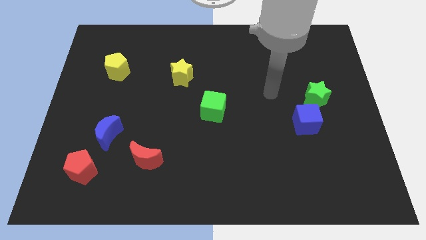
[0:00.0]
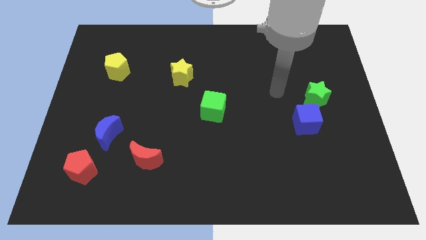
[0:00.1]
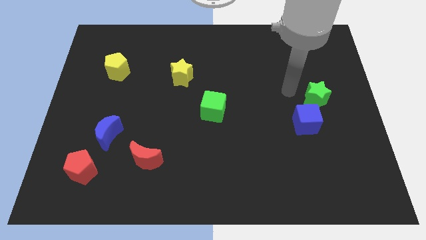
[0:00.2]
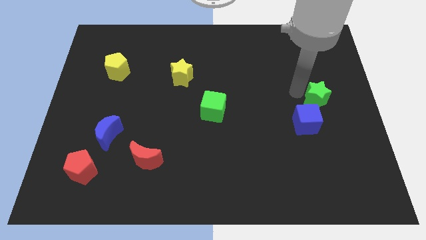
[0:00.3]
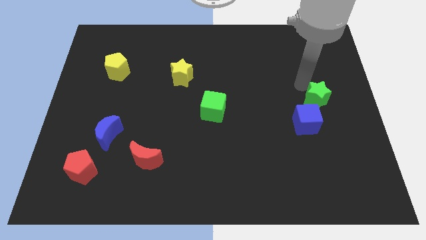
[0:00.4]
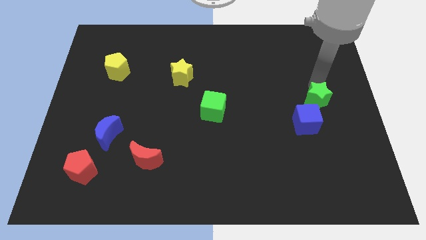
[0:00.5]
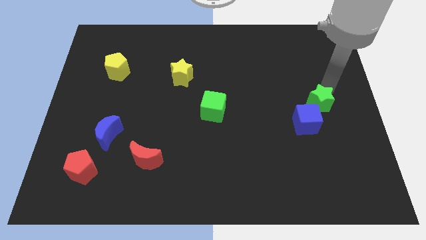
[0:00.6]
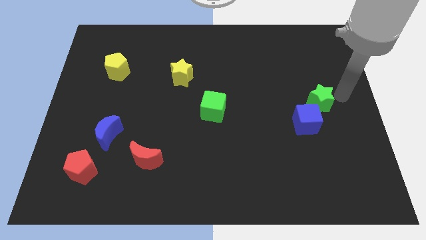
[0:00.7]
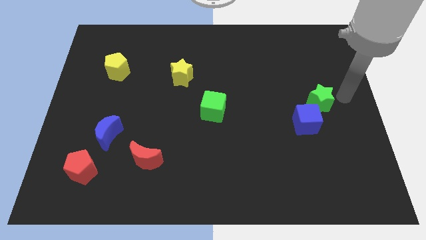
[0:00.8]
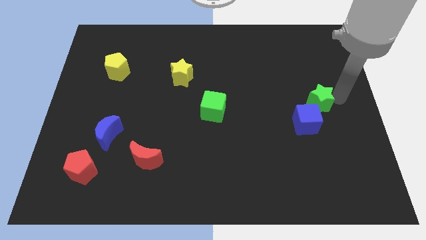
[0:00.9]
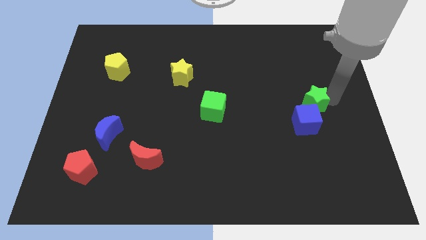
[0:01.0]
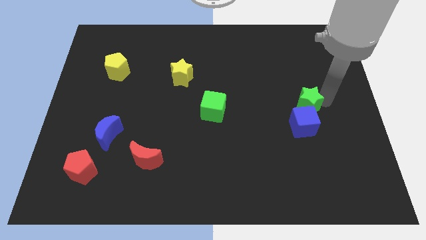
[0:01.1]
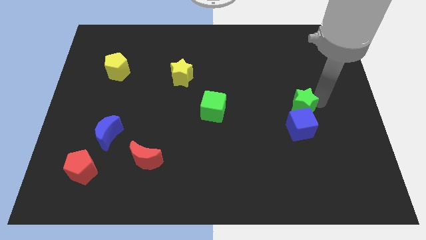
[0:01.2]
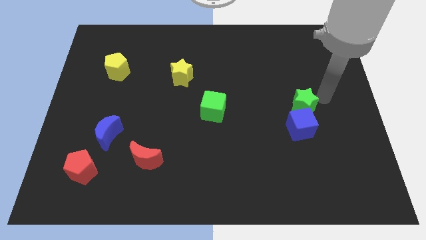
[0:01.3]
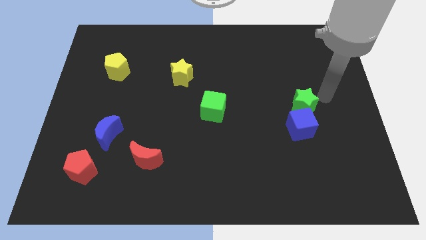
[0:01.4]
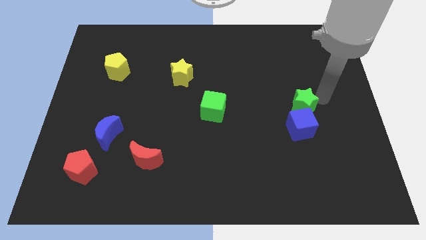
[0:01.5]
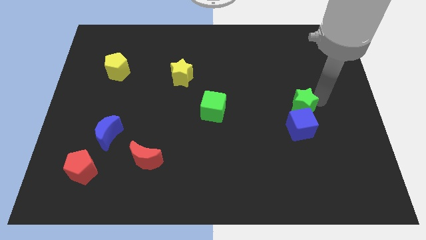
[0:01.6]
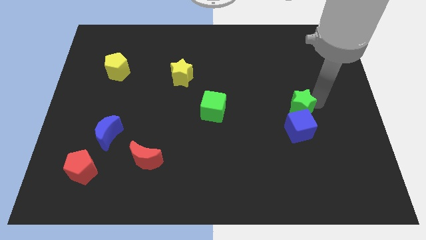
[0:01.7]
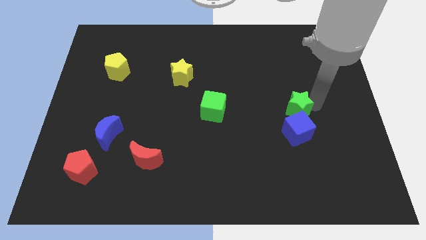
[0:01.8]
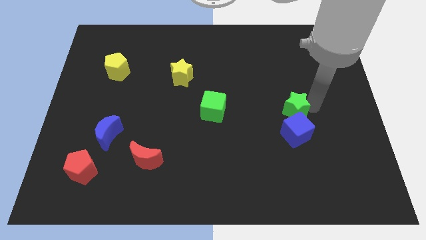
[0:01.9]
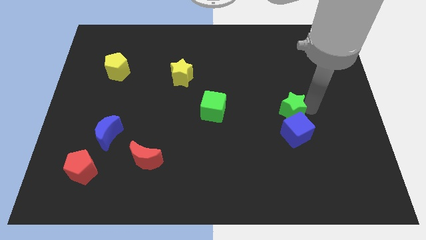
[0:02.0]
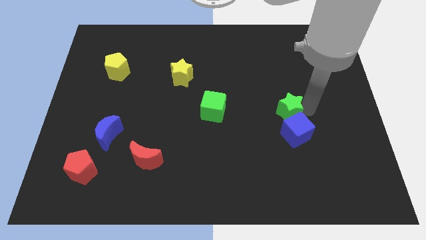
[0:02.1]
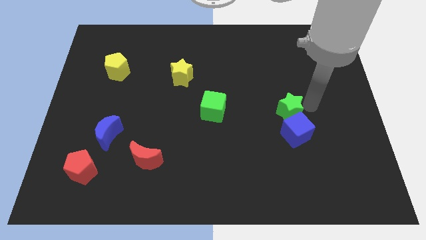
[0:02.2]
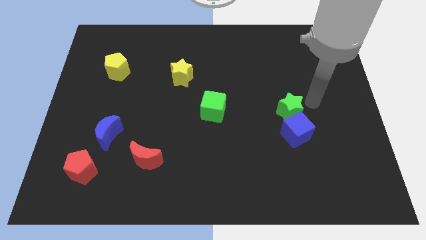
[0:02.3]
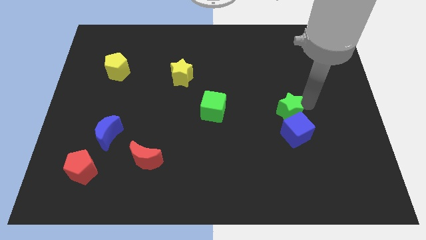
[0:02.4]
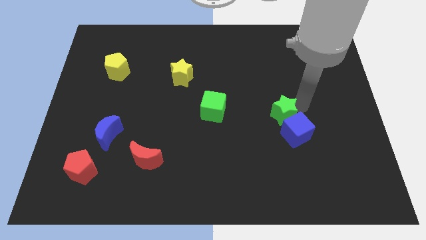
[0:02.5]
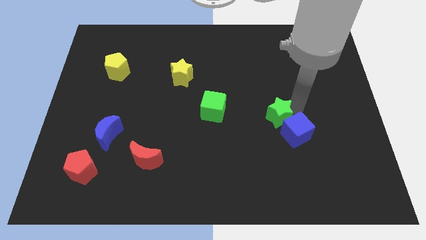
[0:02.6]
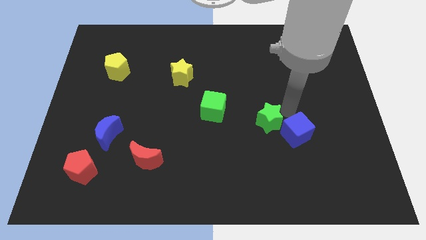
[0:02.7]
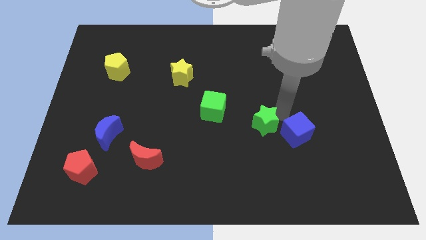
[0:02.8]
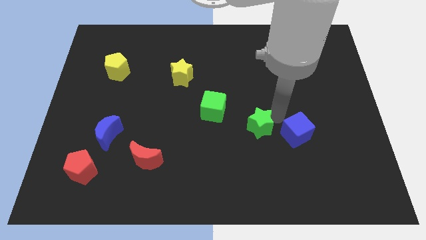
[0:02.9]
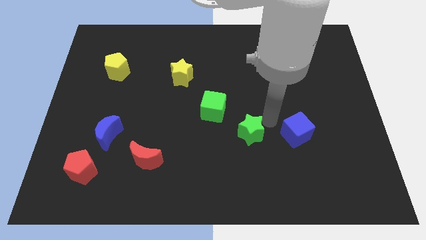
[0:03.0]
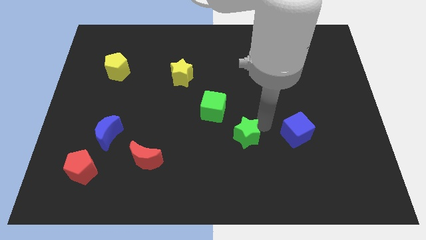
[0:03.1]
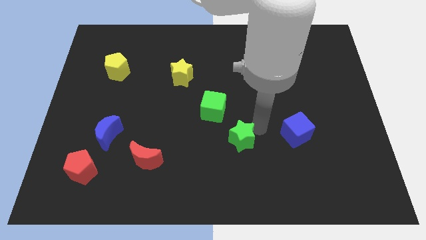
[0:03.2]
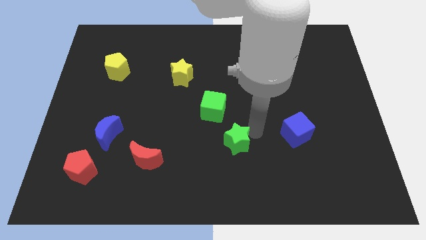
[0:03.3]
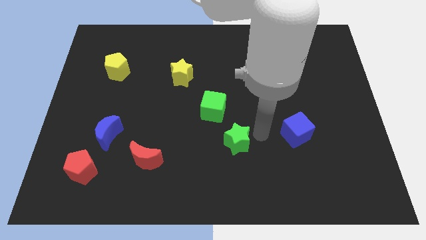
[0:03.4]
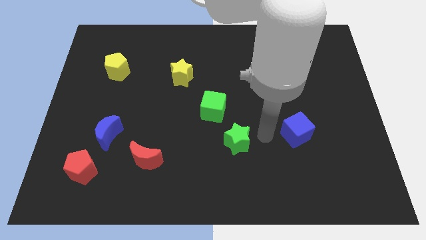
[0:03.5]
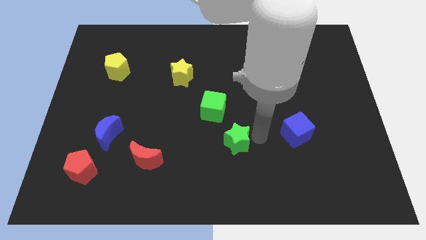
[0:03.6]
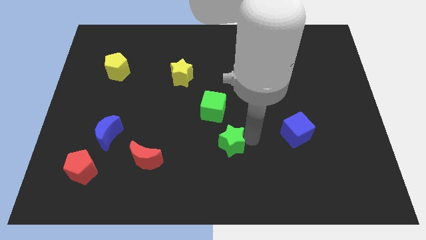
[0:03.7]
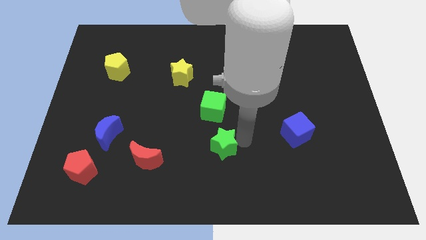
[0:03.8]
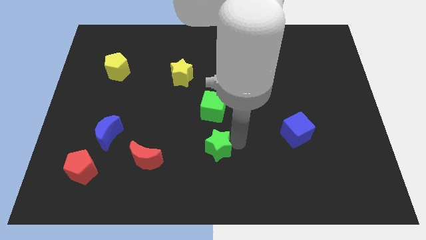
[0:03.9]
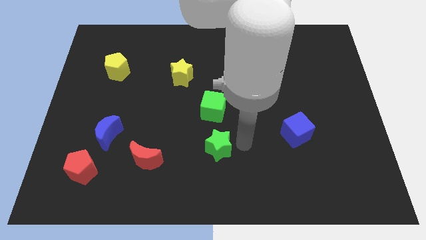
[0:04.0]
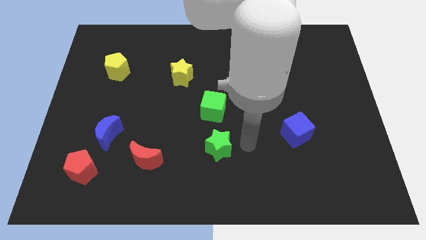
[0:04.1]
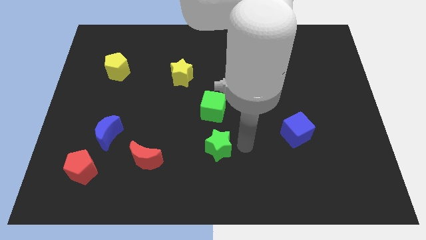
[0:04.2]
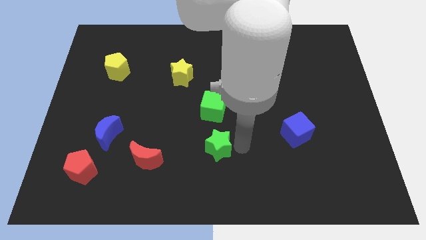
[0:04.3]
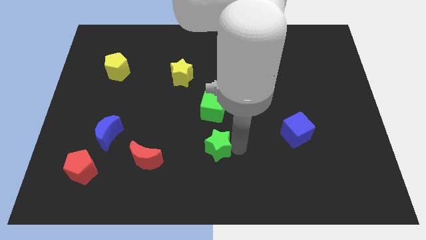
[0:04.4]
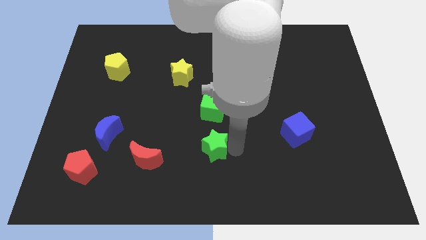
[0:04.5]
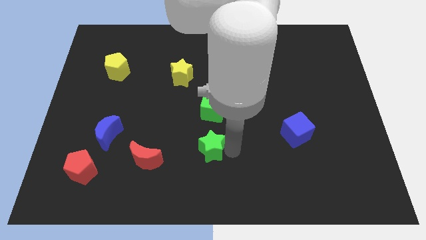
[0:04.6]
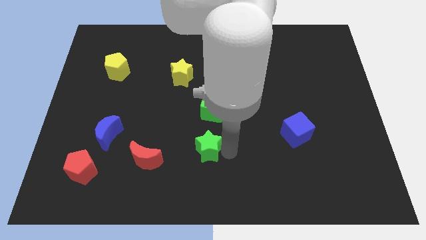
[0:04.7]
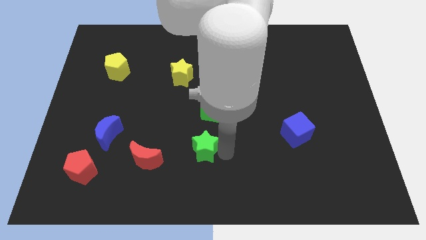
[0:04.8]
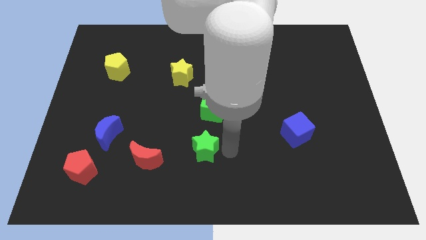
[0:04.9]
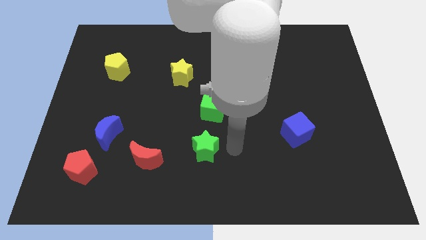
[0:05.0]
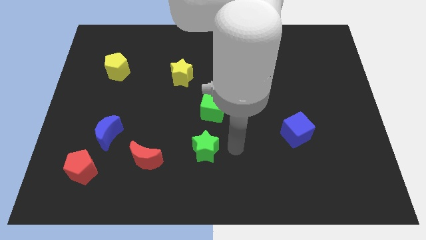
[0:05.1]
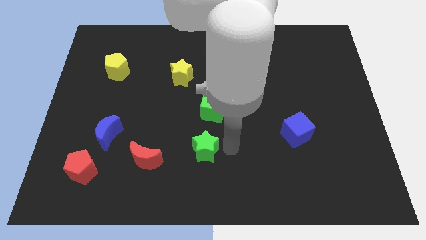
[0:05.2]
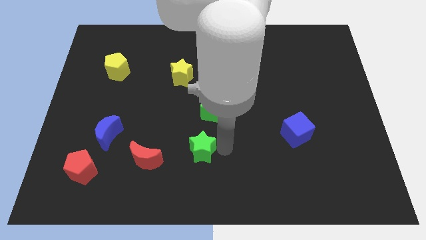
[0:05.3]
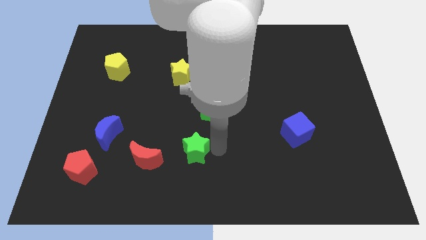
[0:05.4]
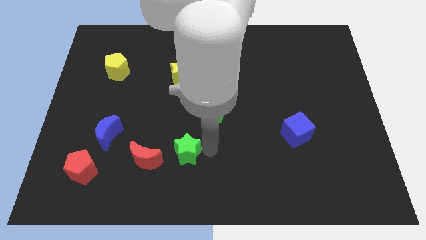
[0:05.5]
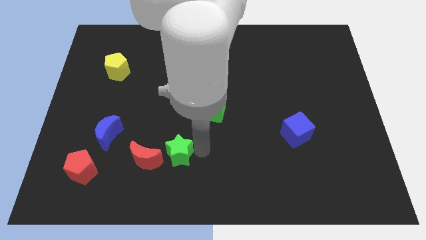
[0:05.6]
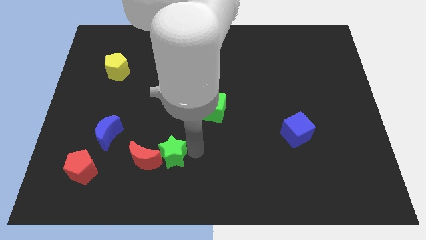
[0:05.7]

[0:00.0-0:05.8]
put the green star towards the red moon

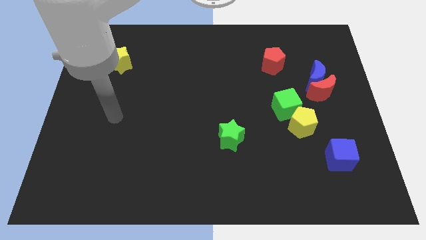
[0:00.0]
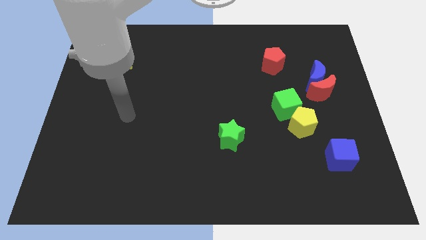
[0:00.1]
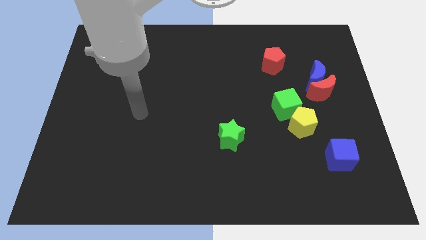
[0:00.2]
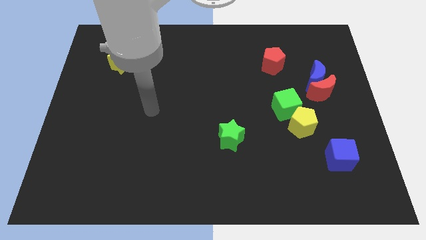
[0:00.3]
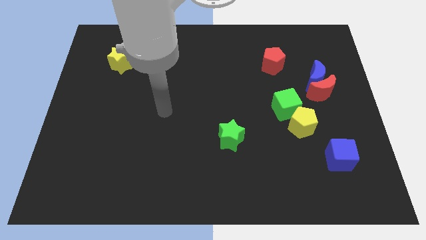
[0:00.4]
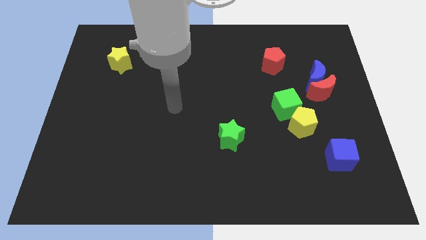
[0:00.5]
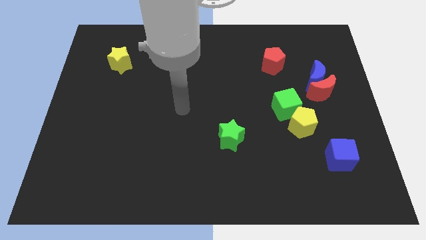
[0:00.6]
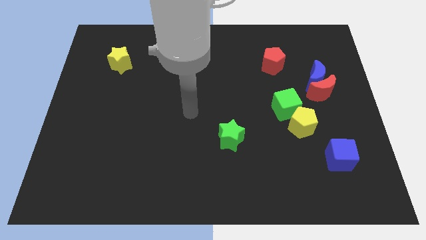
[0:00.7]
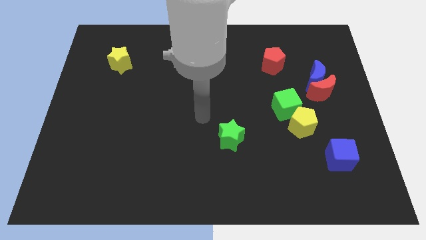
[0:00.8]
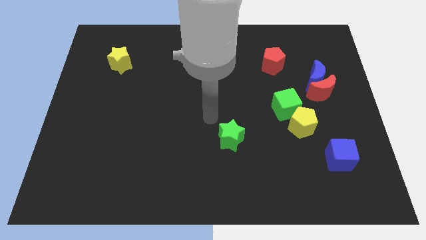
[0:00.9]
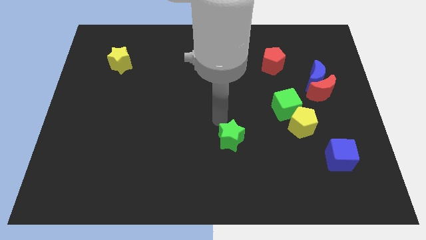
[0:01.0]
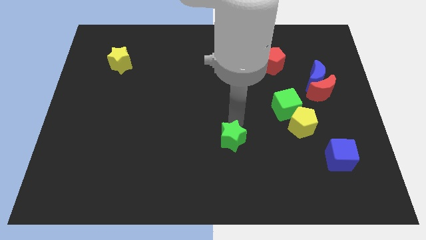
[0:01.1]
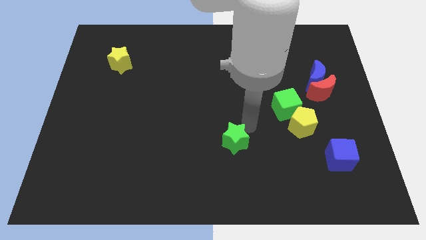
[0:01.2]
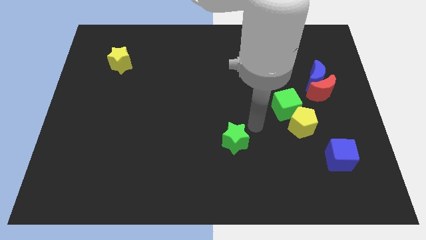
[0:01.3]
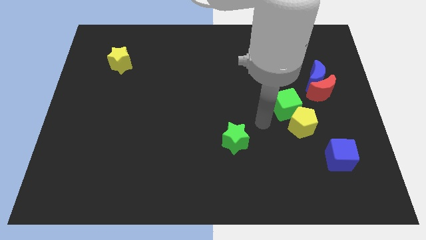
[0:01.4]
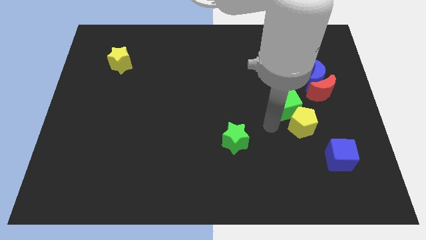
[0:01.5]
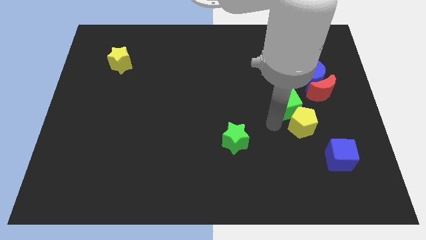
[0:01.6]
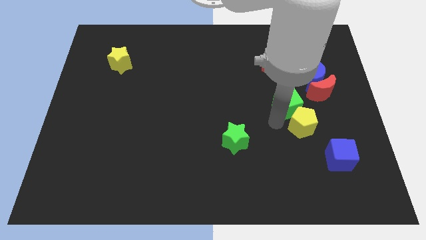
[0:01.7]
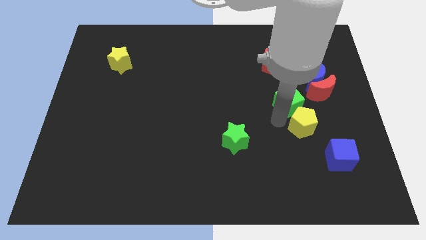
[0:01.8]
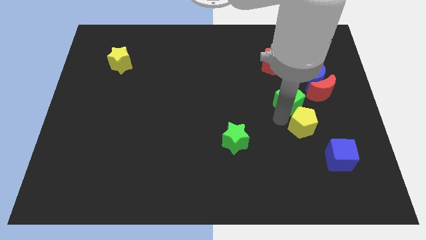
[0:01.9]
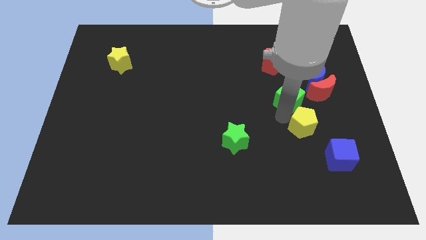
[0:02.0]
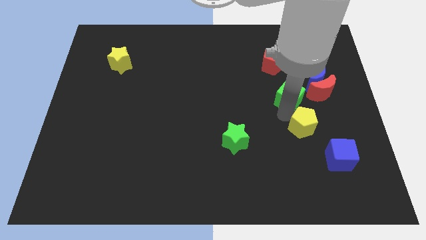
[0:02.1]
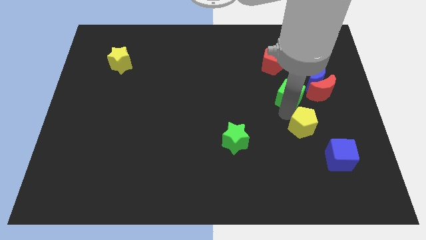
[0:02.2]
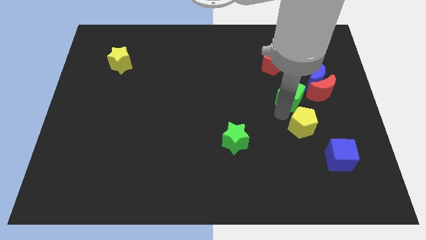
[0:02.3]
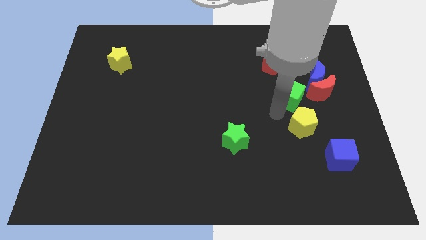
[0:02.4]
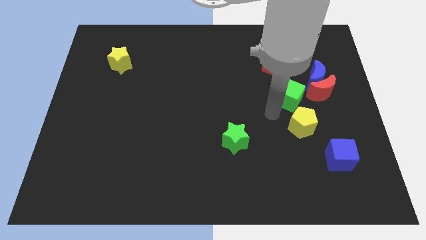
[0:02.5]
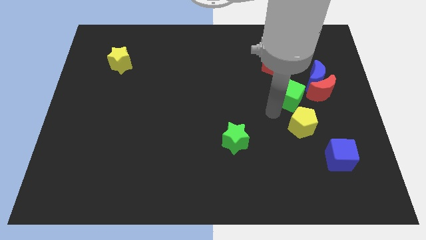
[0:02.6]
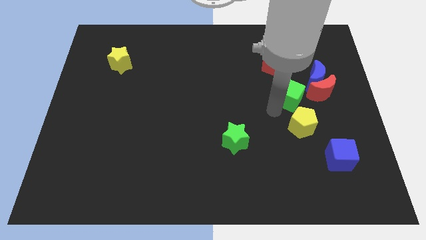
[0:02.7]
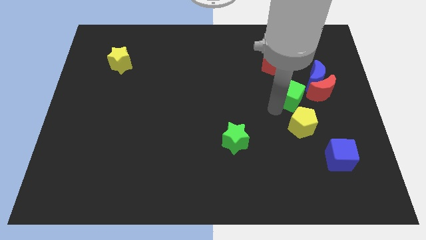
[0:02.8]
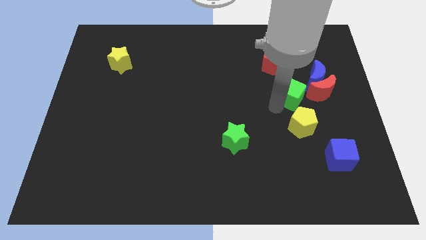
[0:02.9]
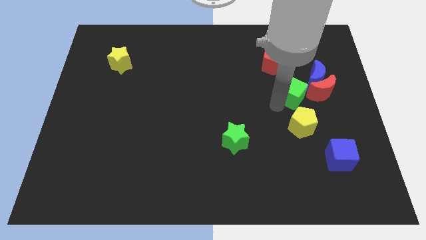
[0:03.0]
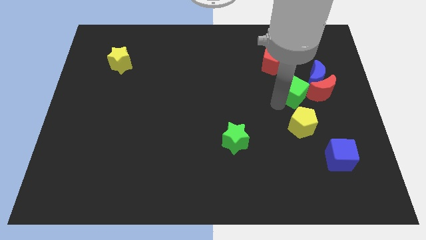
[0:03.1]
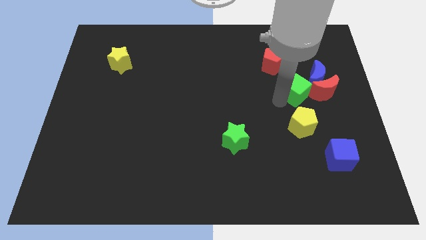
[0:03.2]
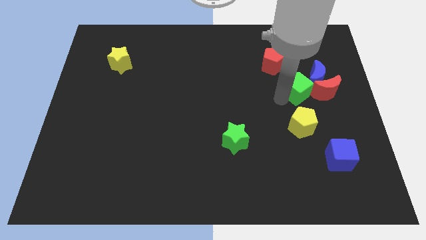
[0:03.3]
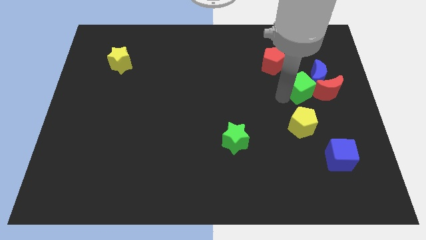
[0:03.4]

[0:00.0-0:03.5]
push the green cube towards the blue moon
